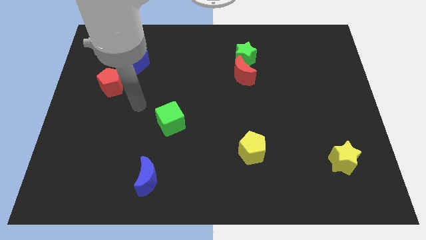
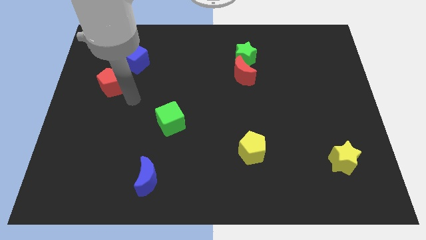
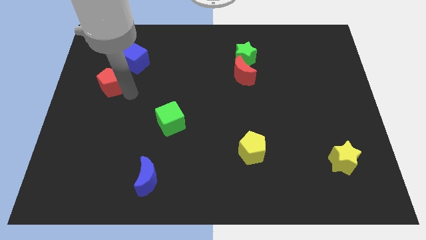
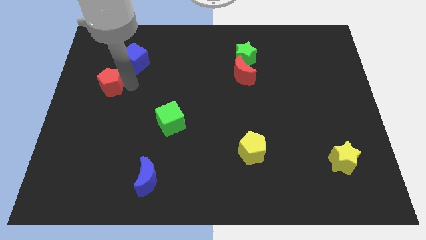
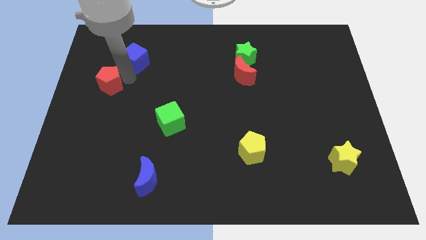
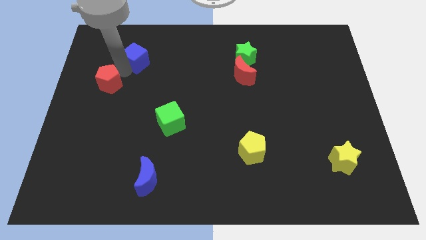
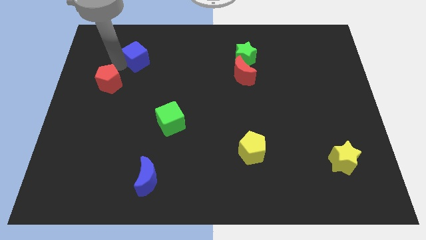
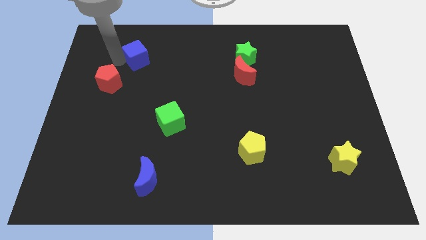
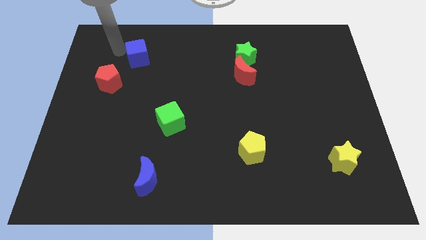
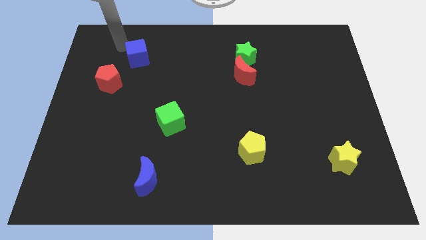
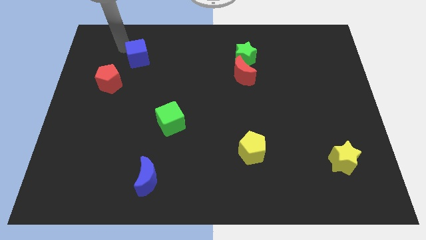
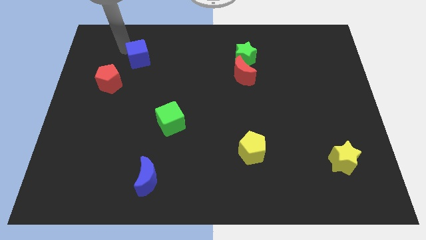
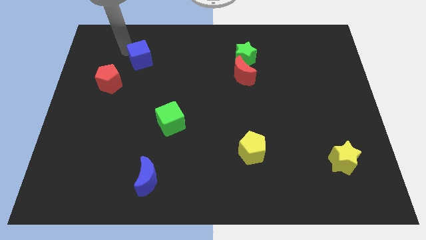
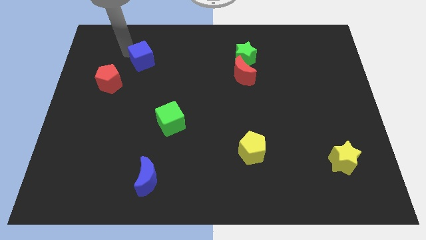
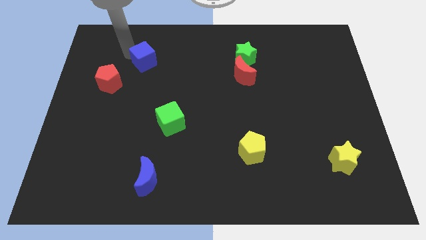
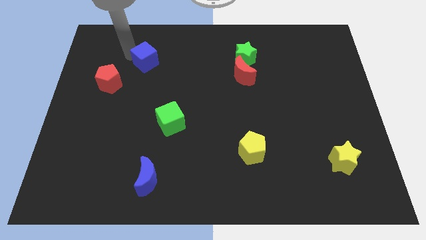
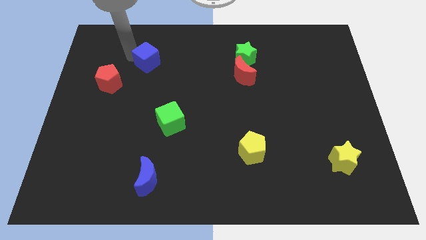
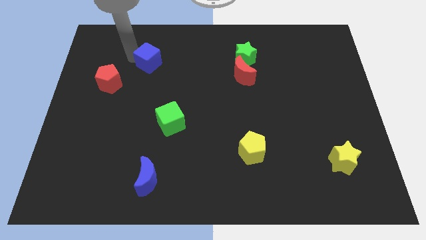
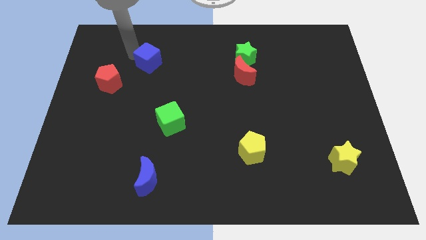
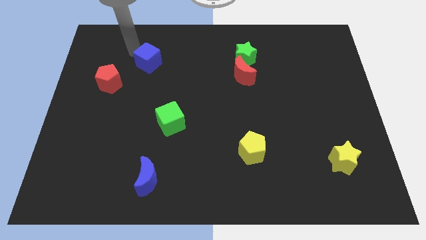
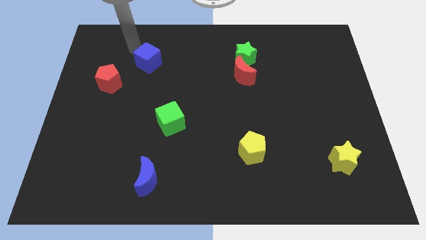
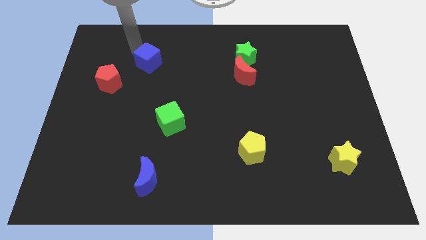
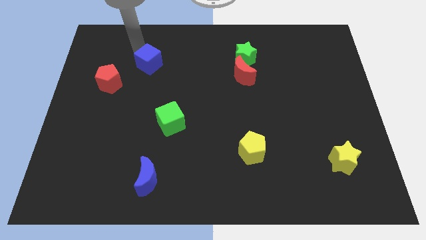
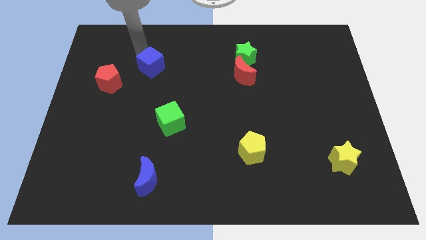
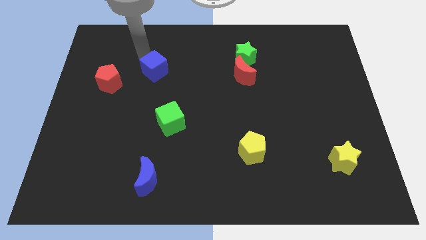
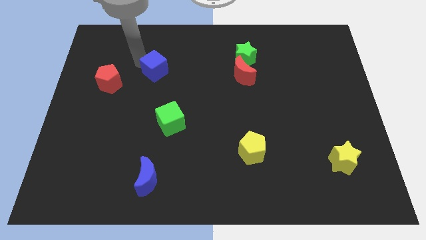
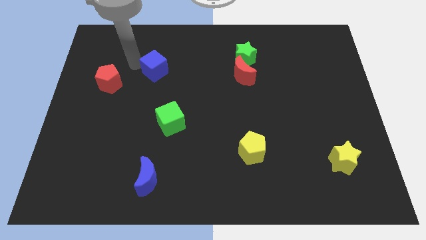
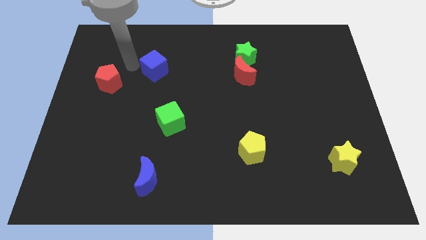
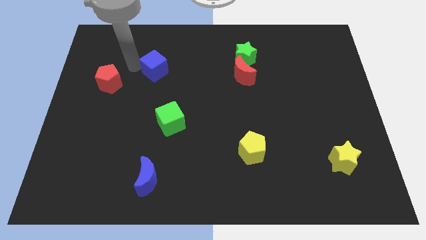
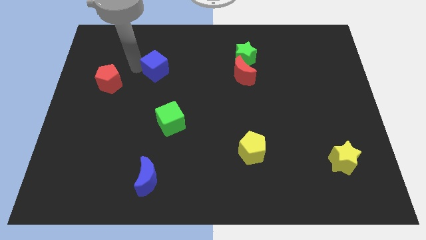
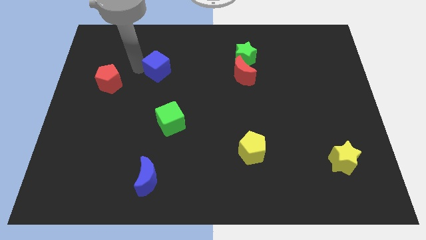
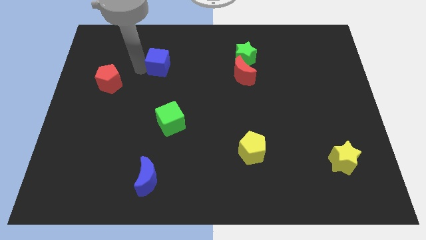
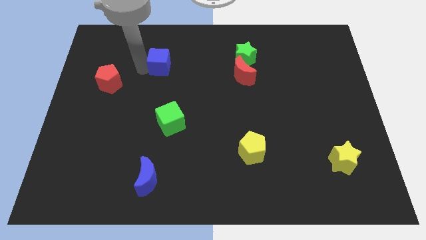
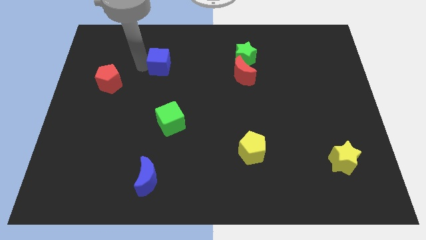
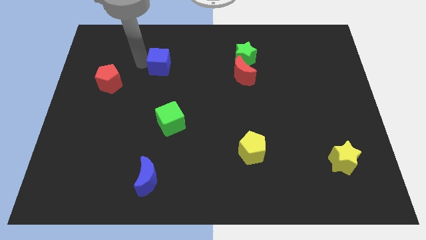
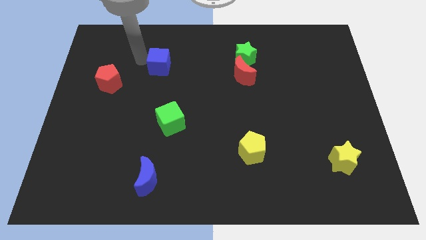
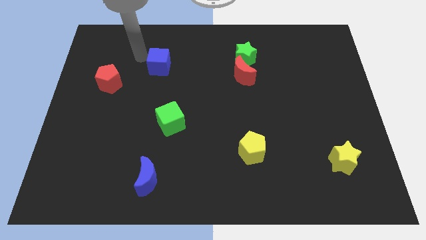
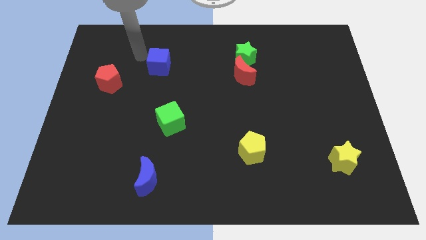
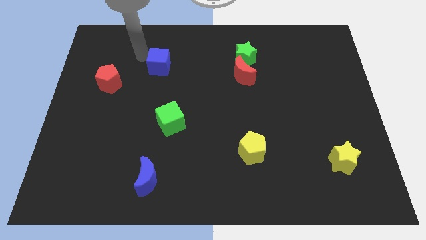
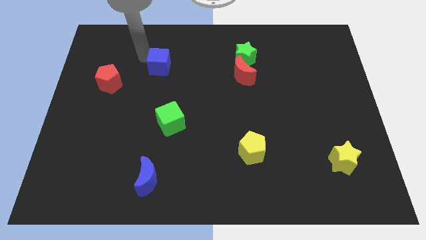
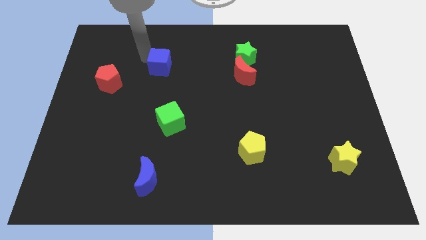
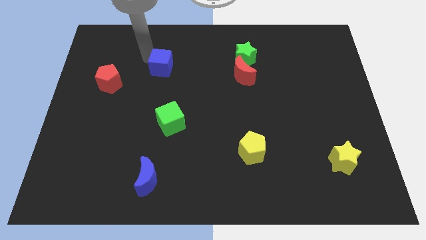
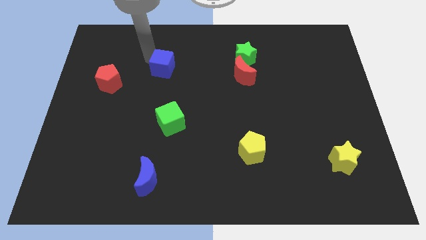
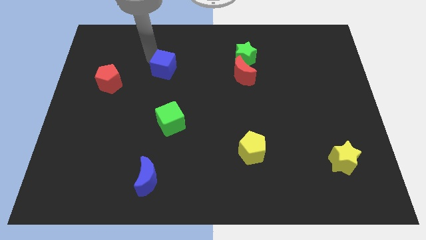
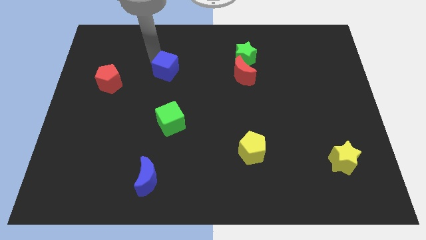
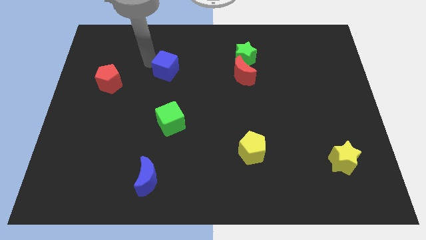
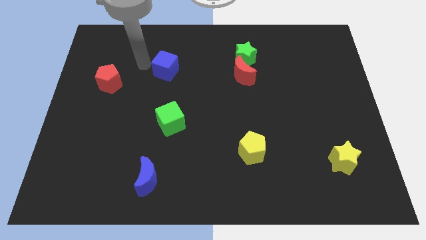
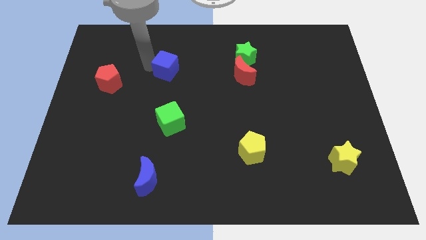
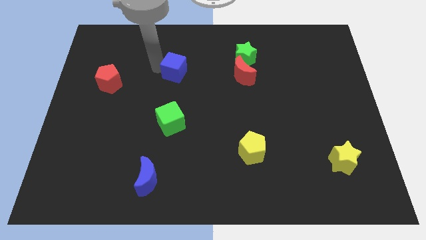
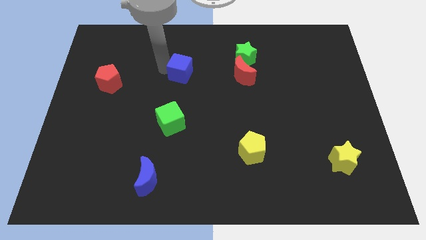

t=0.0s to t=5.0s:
move the blue cube just left of the red moon

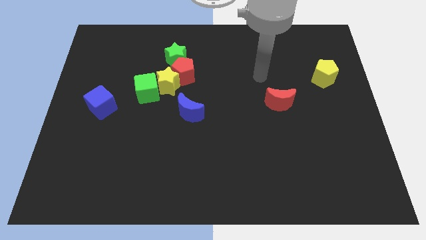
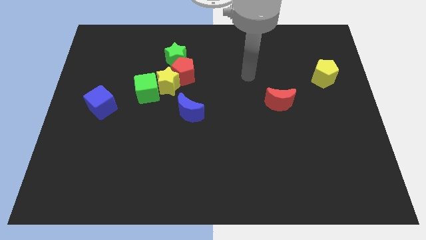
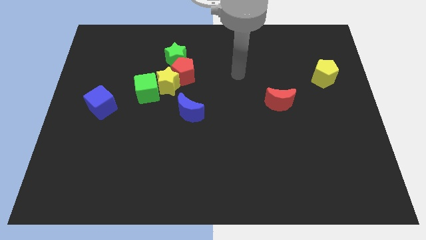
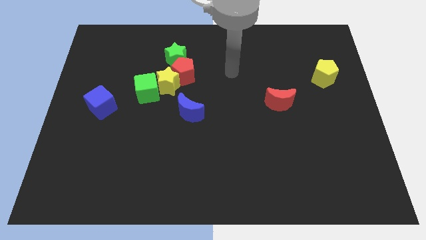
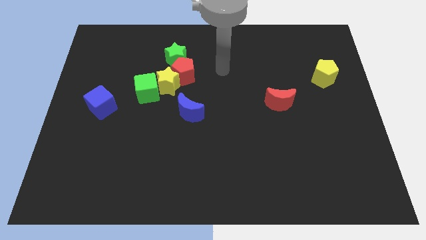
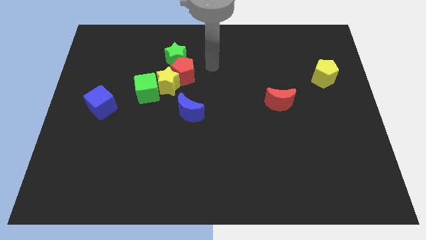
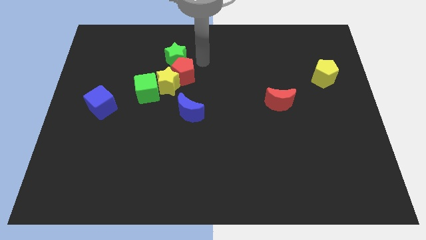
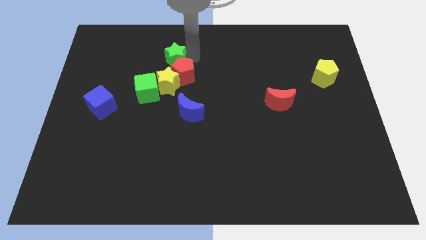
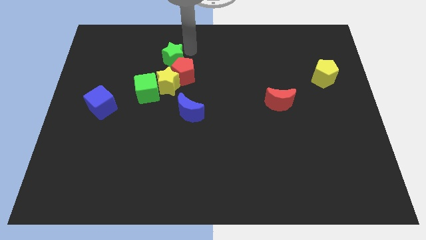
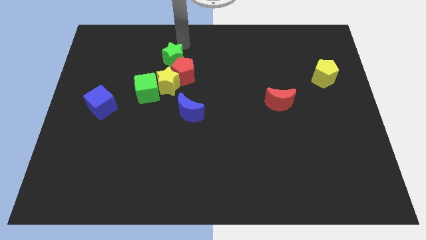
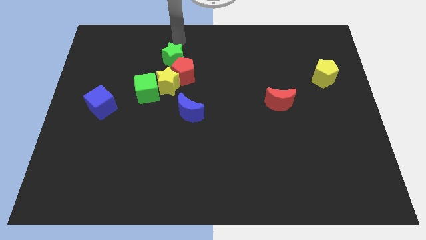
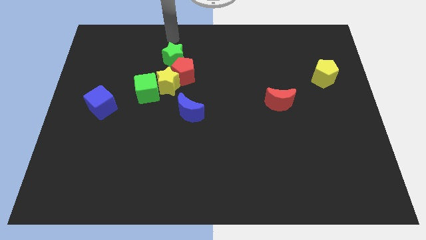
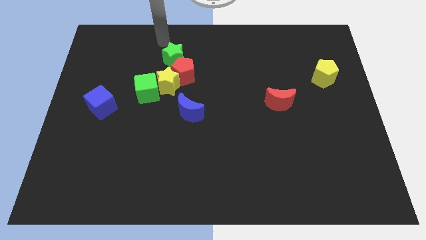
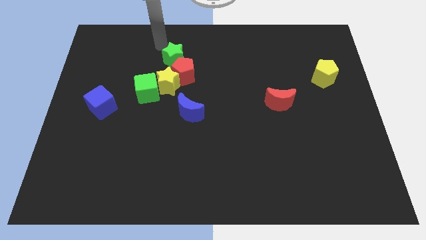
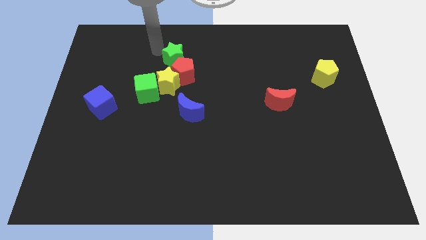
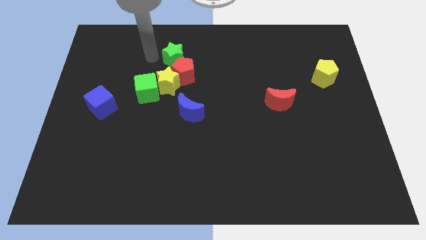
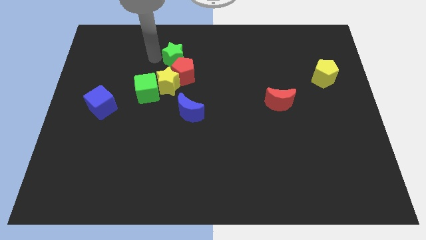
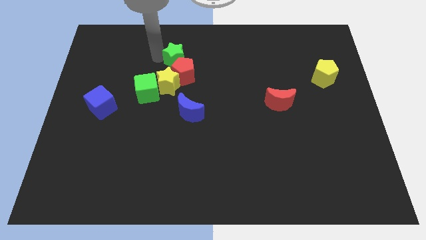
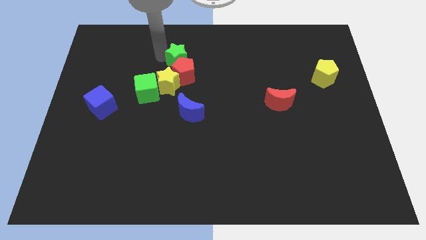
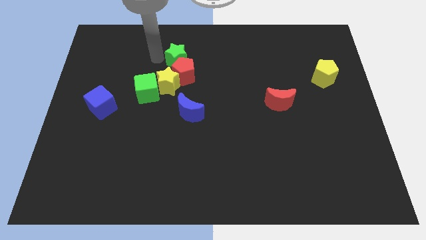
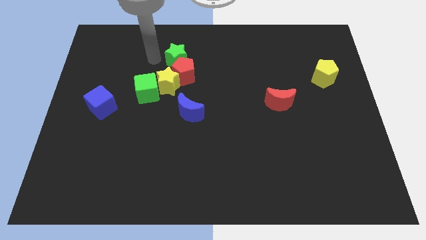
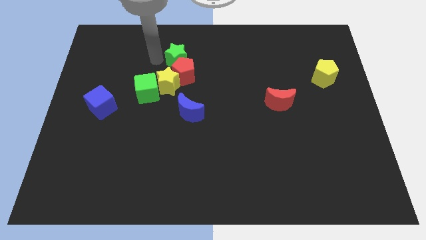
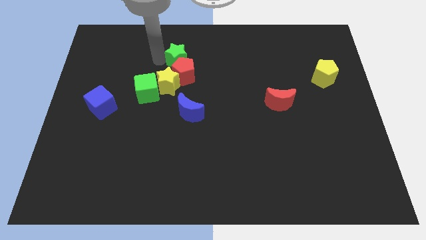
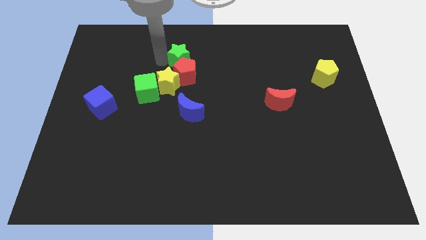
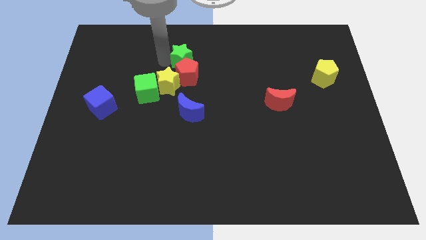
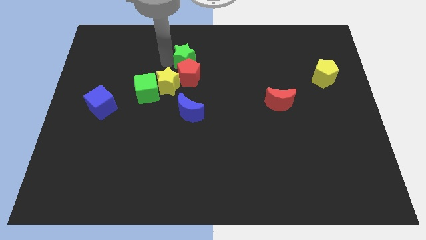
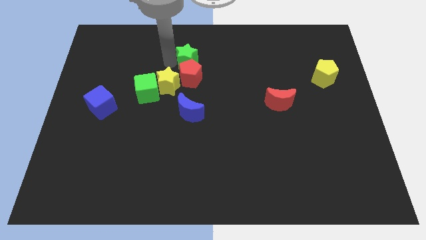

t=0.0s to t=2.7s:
put the green star diagonally up and to the right of the red pentagon

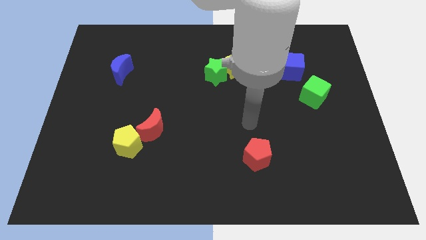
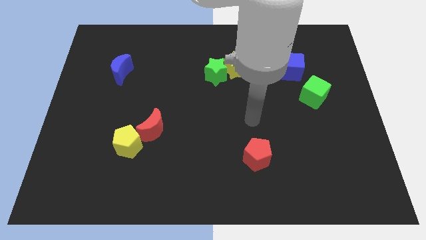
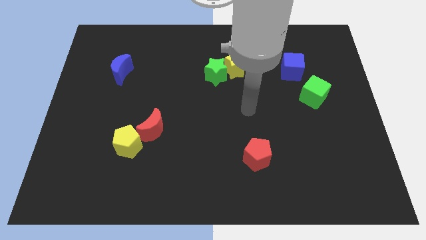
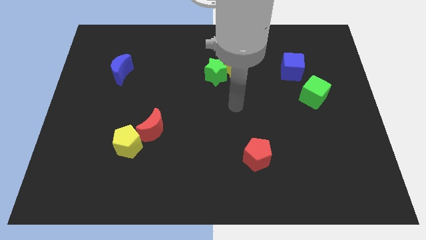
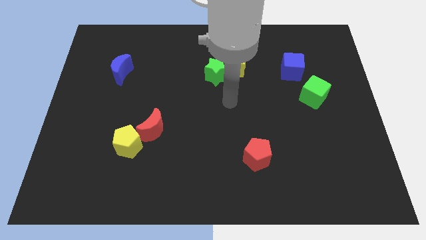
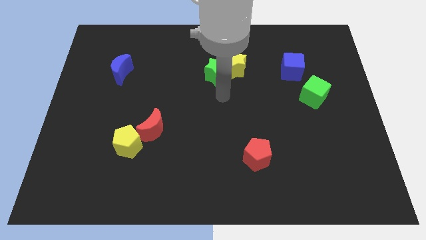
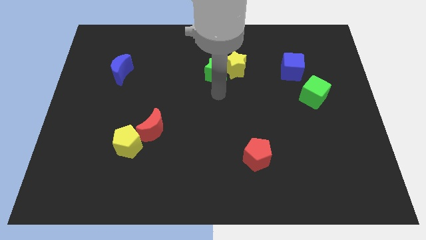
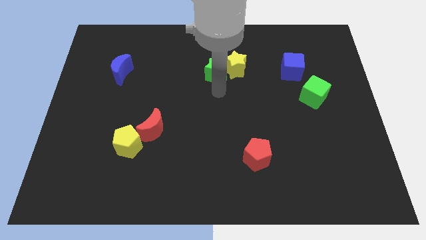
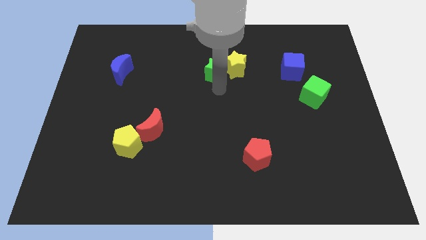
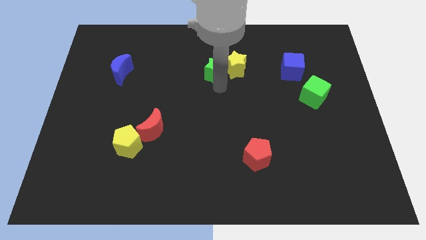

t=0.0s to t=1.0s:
put the green star to the top left of the yellow star
